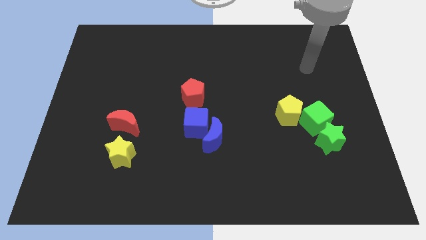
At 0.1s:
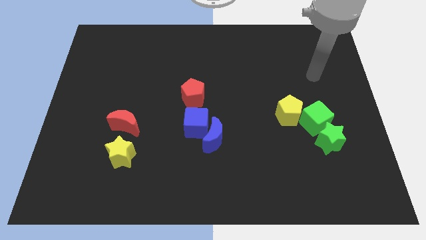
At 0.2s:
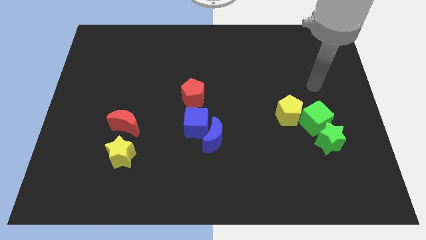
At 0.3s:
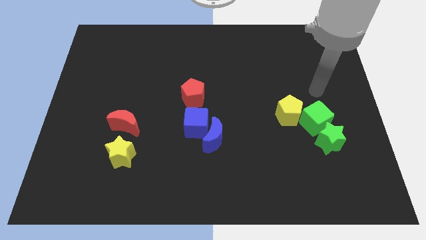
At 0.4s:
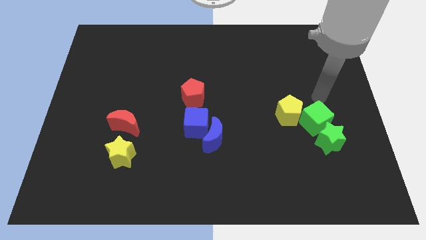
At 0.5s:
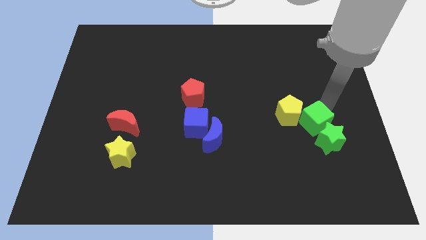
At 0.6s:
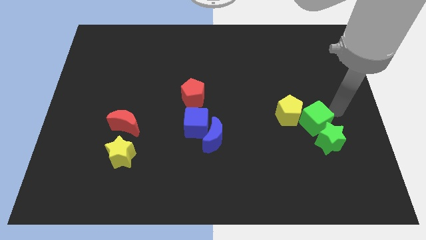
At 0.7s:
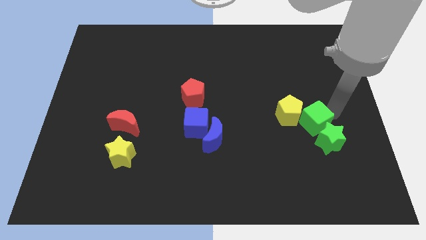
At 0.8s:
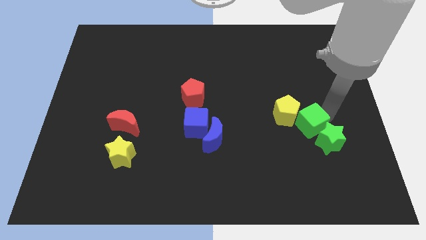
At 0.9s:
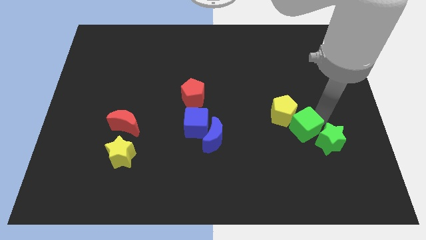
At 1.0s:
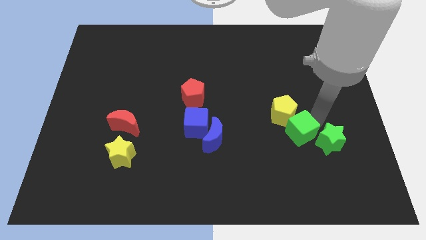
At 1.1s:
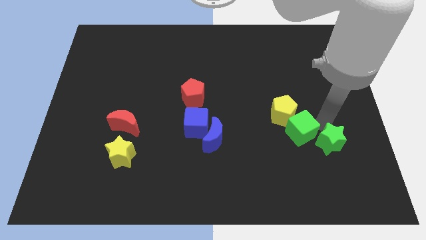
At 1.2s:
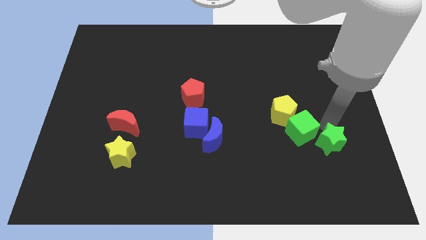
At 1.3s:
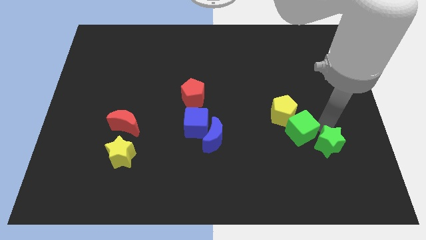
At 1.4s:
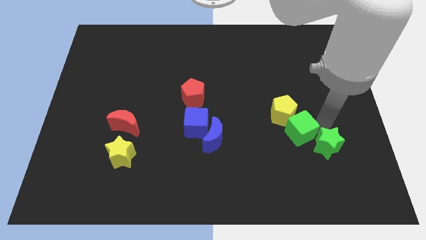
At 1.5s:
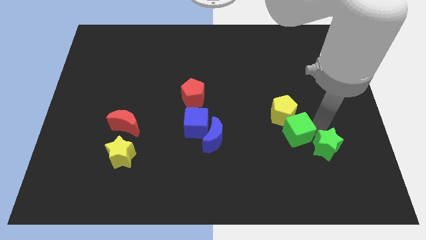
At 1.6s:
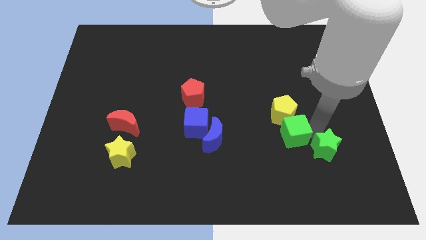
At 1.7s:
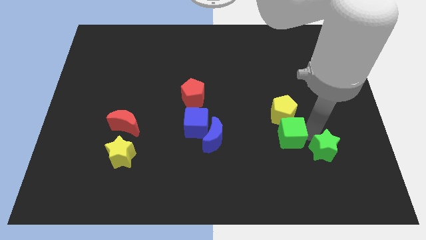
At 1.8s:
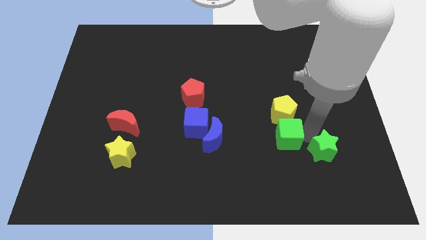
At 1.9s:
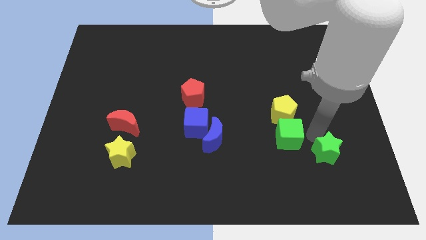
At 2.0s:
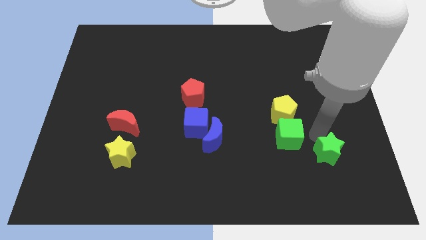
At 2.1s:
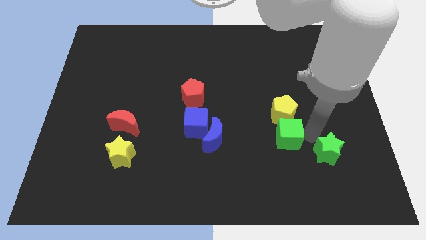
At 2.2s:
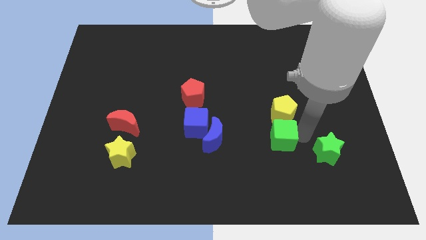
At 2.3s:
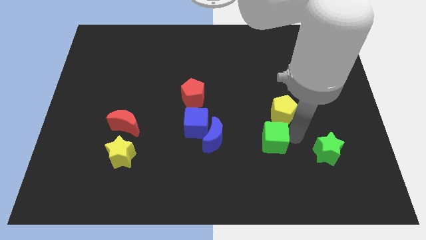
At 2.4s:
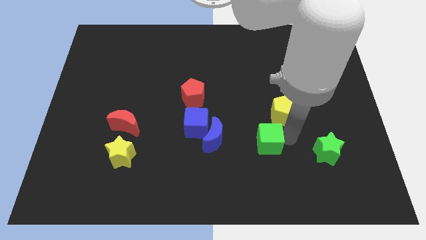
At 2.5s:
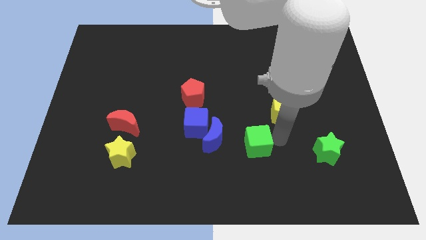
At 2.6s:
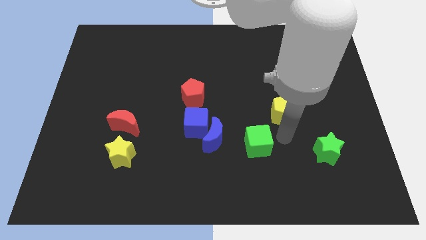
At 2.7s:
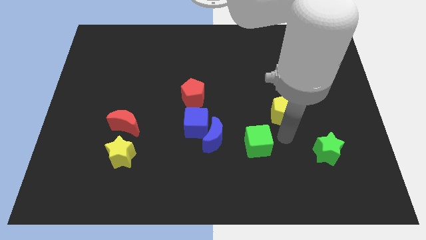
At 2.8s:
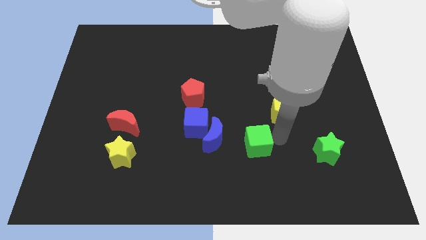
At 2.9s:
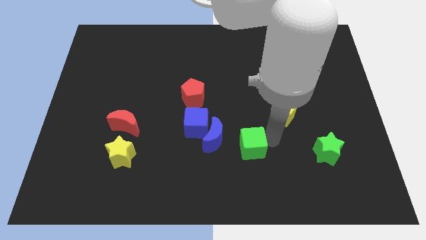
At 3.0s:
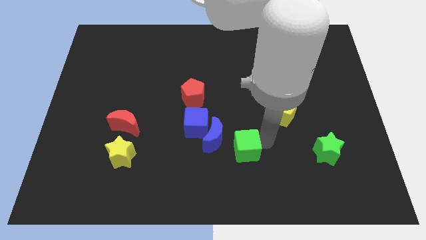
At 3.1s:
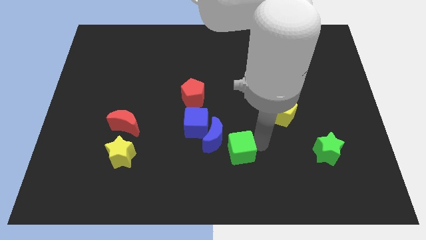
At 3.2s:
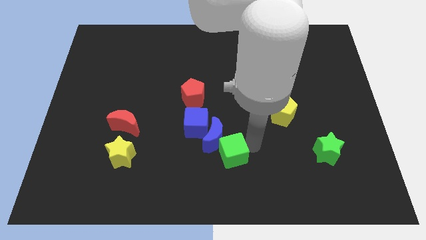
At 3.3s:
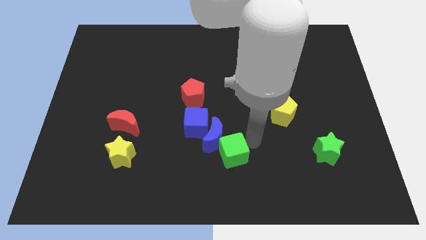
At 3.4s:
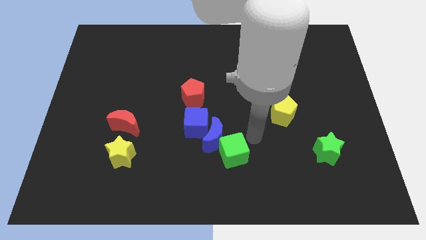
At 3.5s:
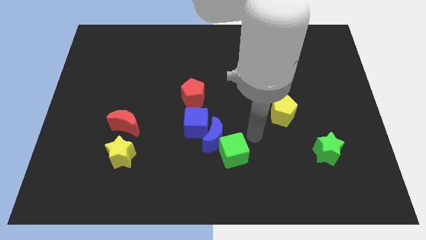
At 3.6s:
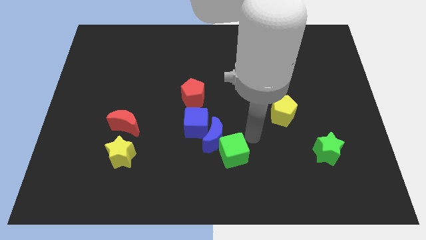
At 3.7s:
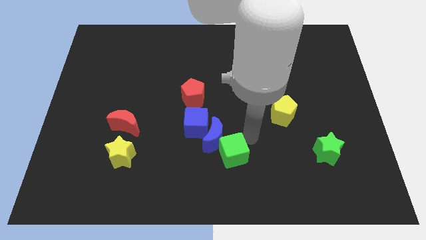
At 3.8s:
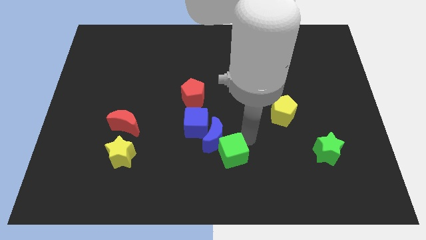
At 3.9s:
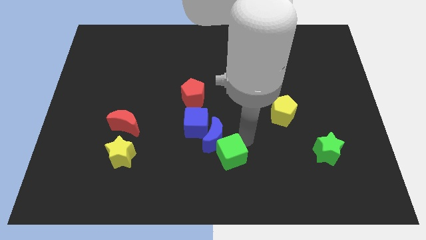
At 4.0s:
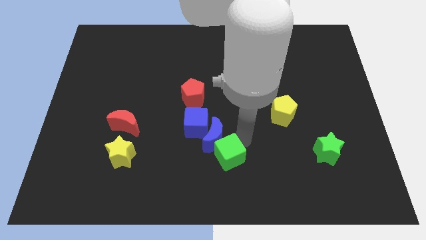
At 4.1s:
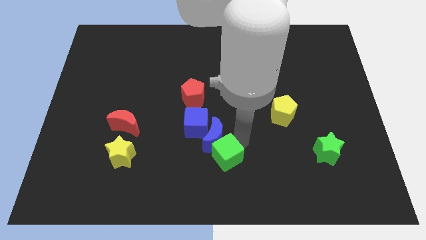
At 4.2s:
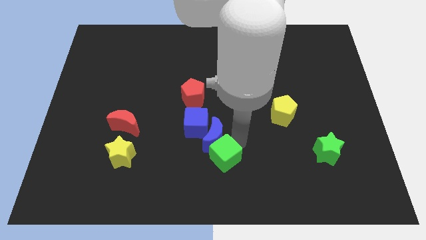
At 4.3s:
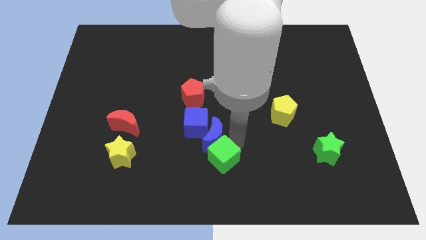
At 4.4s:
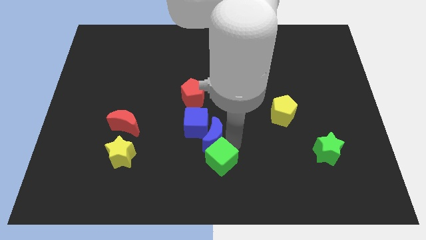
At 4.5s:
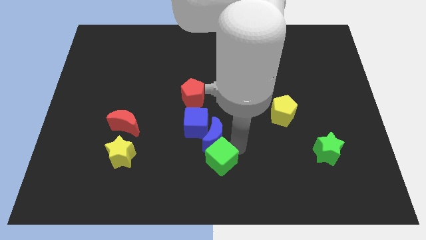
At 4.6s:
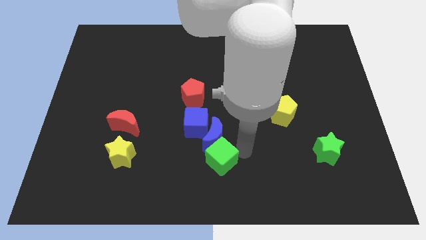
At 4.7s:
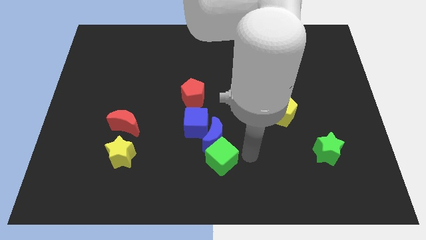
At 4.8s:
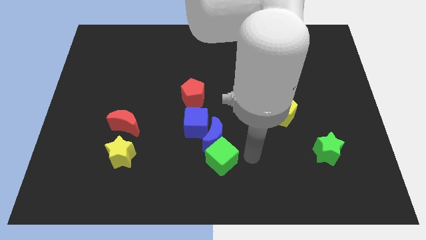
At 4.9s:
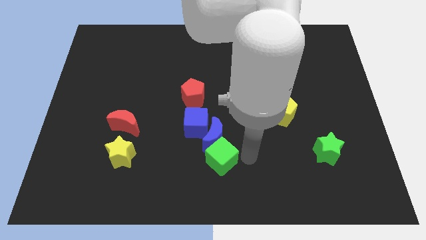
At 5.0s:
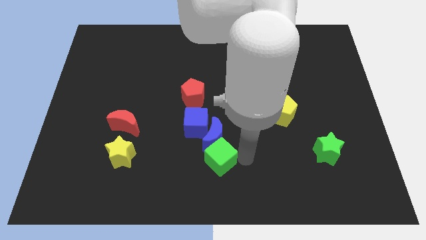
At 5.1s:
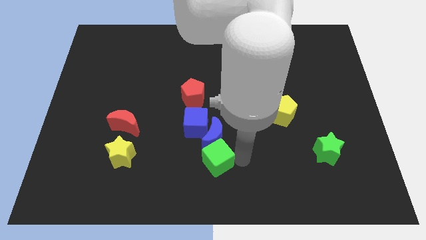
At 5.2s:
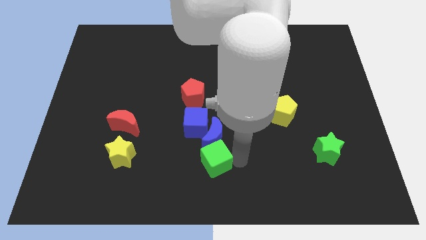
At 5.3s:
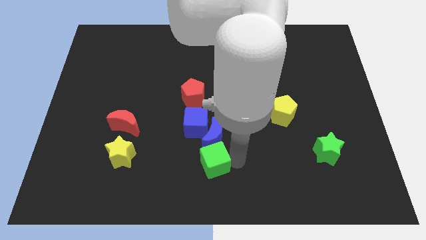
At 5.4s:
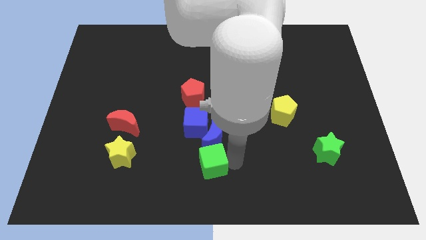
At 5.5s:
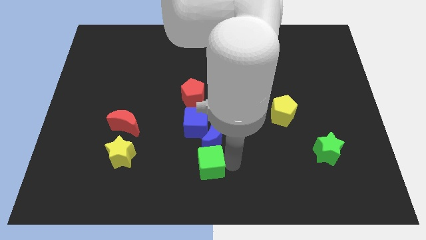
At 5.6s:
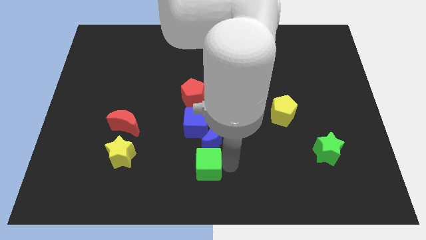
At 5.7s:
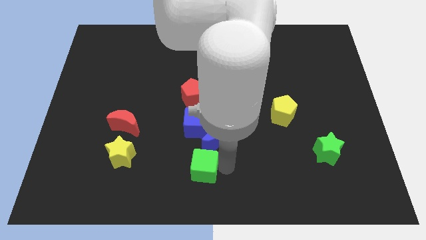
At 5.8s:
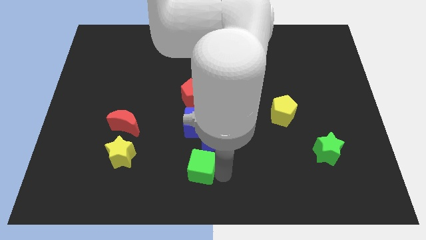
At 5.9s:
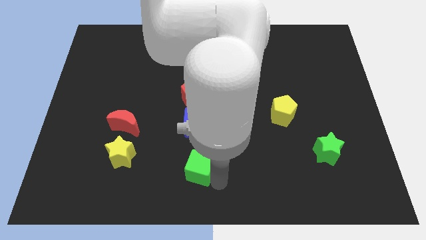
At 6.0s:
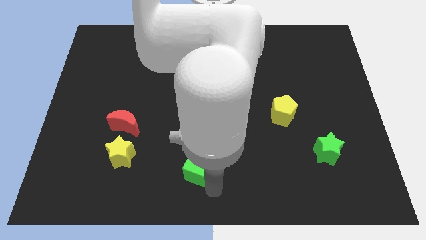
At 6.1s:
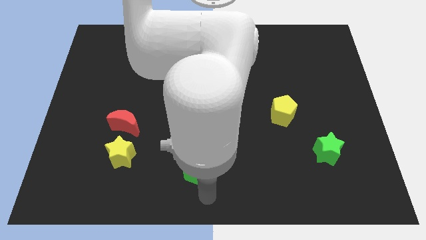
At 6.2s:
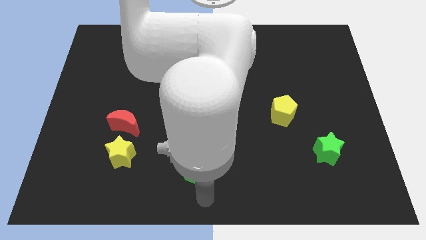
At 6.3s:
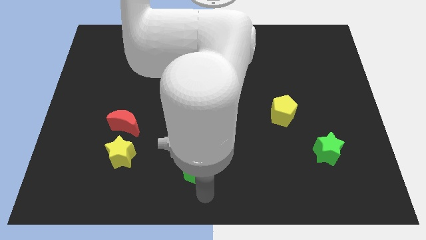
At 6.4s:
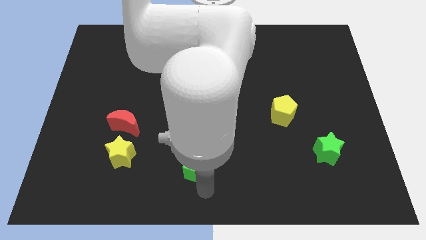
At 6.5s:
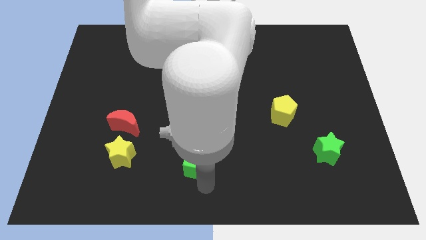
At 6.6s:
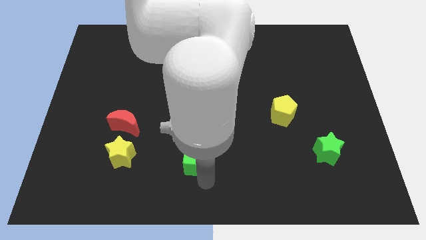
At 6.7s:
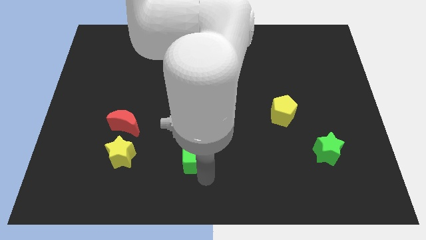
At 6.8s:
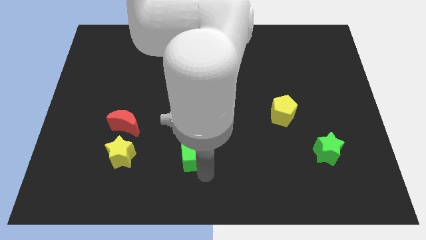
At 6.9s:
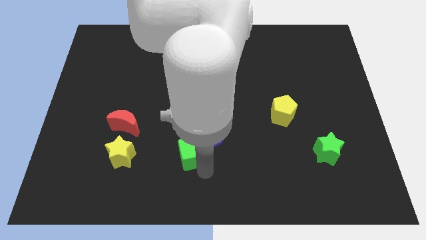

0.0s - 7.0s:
push the green cube below the red pentagon
